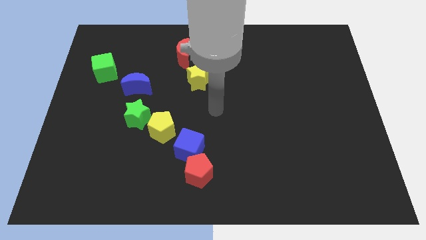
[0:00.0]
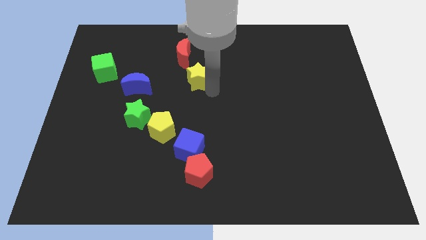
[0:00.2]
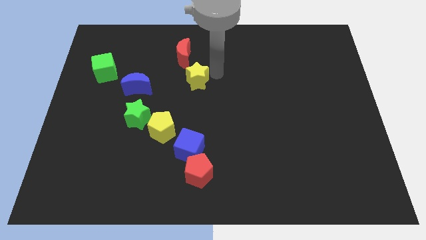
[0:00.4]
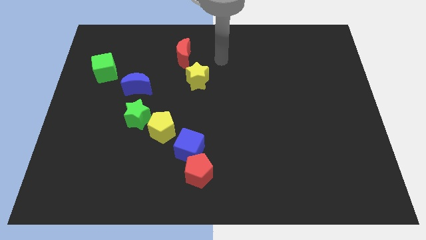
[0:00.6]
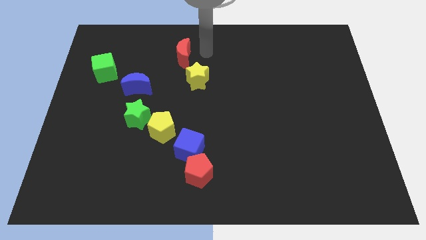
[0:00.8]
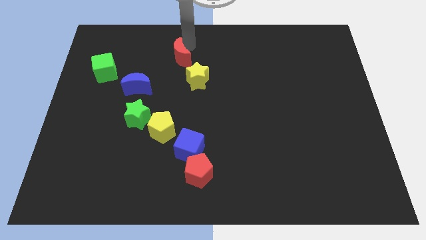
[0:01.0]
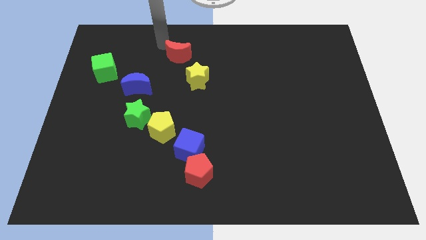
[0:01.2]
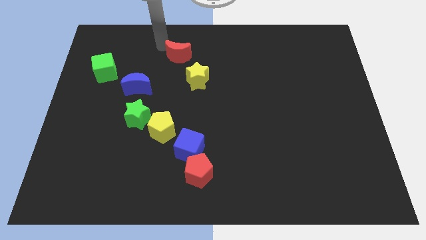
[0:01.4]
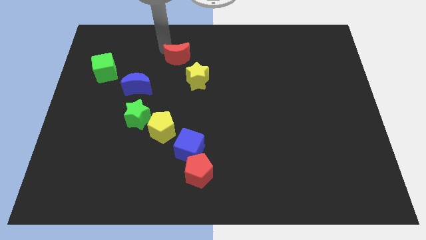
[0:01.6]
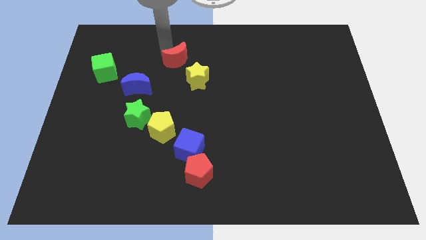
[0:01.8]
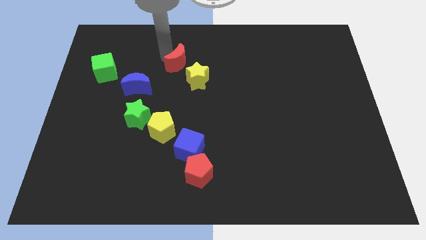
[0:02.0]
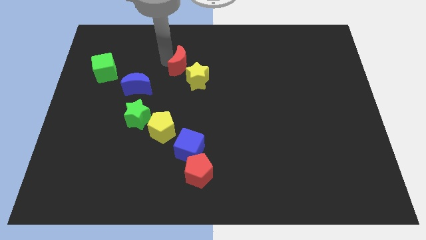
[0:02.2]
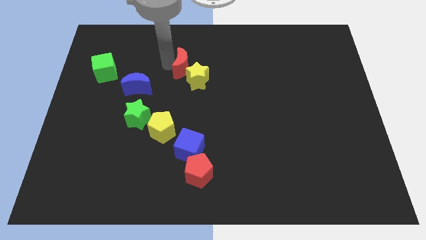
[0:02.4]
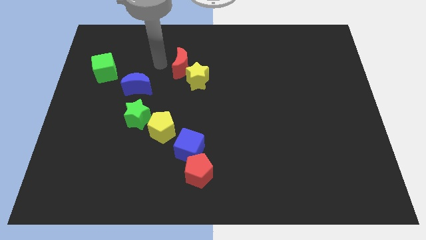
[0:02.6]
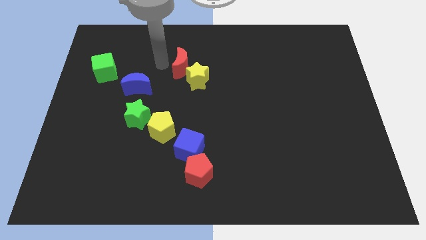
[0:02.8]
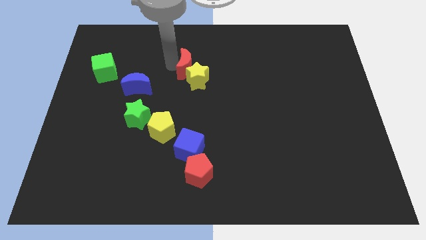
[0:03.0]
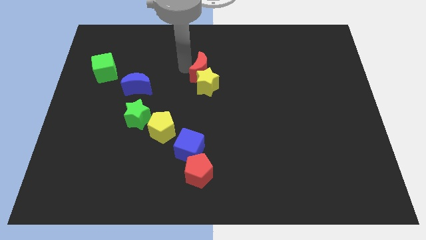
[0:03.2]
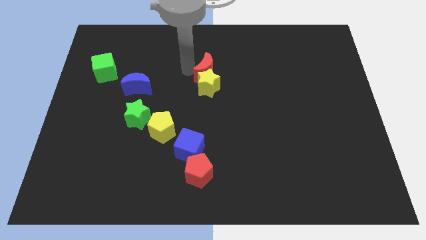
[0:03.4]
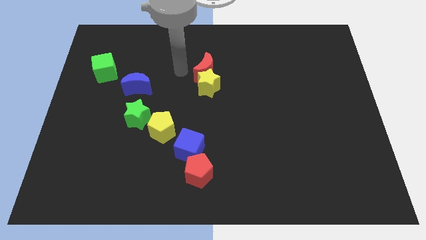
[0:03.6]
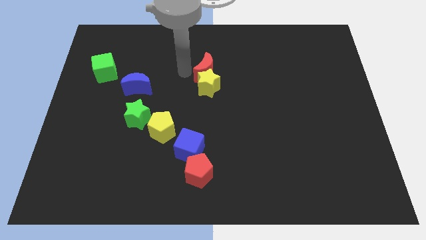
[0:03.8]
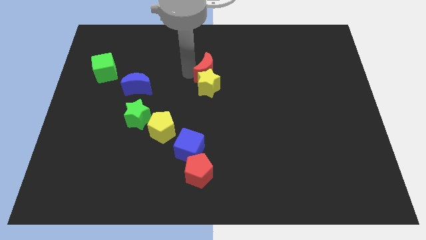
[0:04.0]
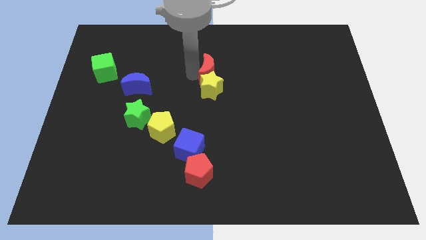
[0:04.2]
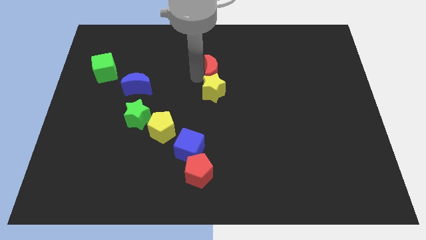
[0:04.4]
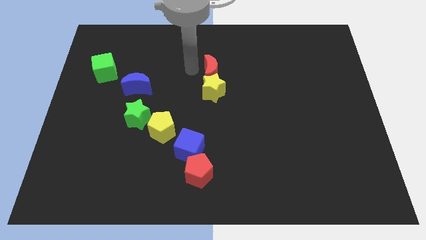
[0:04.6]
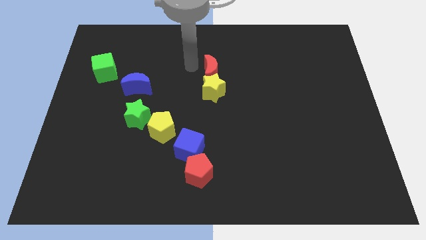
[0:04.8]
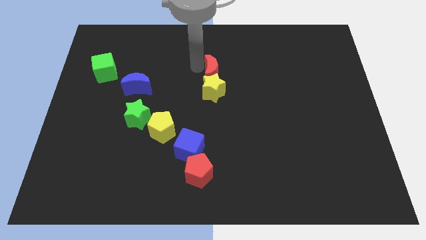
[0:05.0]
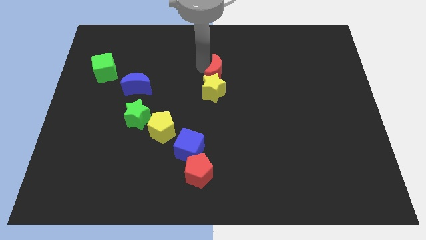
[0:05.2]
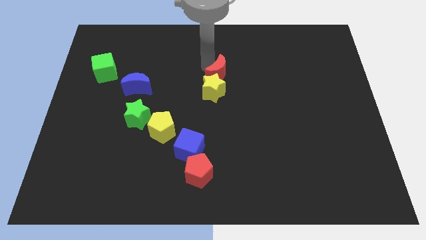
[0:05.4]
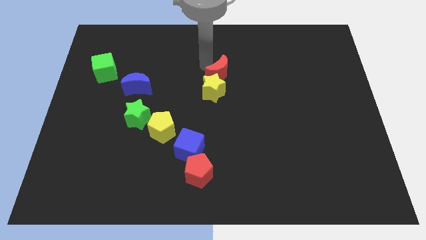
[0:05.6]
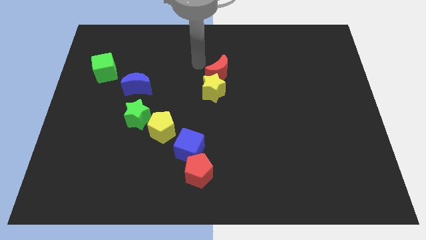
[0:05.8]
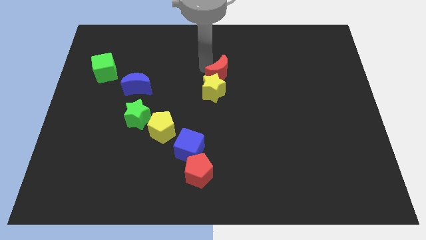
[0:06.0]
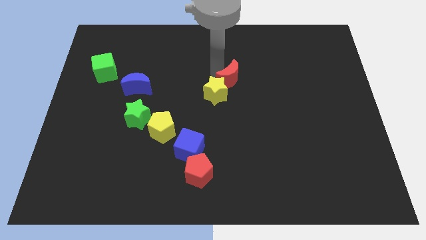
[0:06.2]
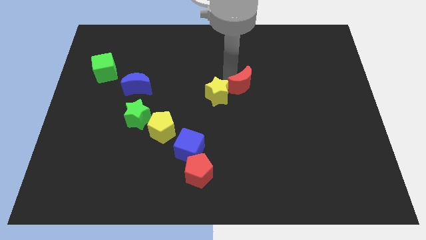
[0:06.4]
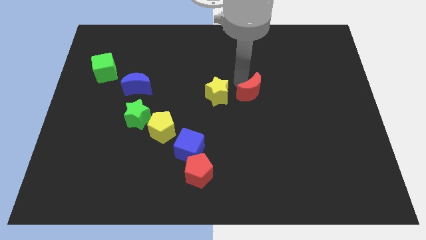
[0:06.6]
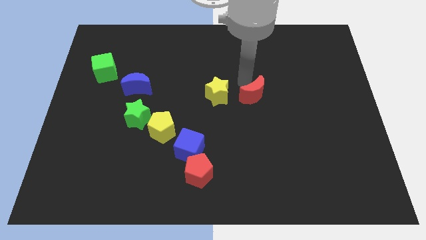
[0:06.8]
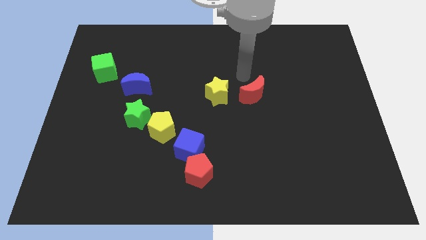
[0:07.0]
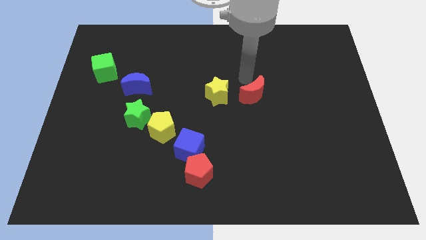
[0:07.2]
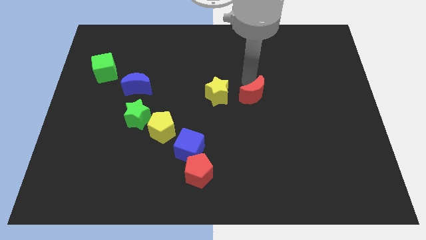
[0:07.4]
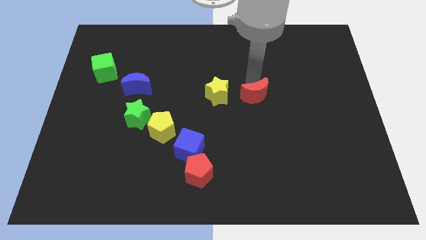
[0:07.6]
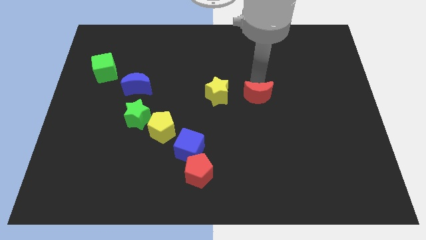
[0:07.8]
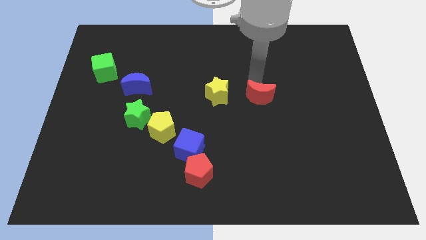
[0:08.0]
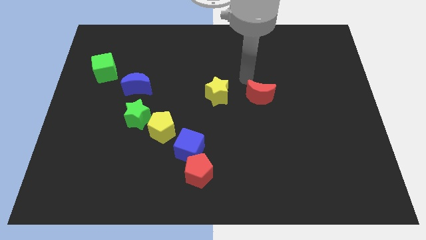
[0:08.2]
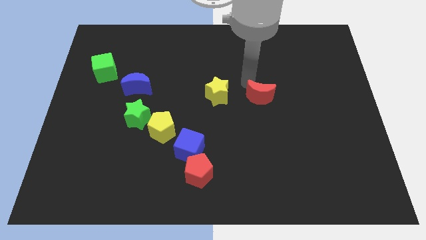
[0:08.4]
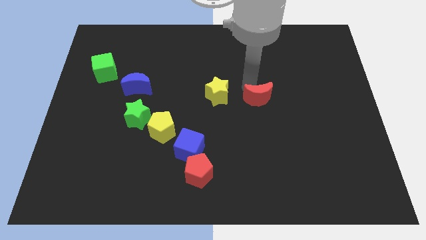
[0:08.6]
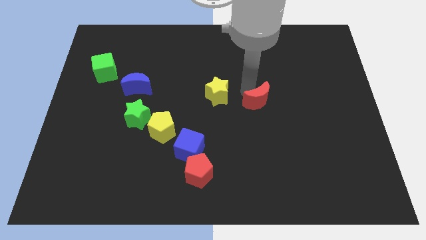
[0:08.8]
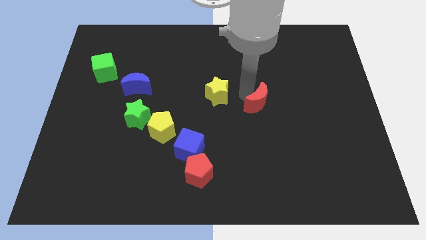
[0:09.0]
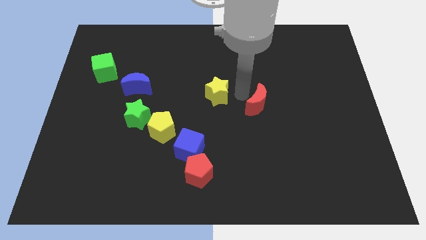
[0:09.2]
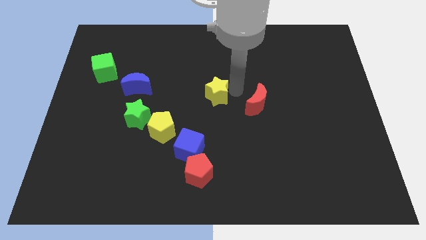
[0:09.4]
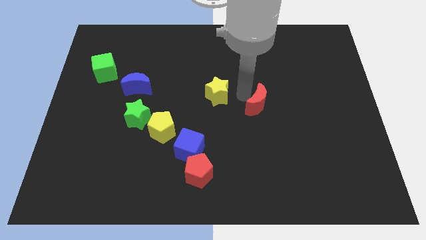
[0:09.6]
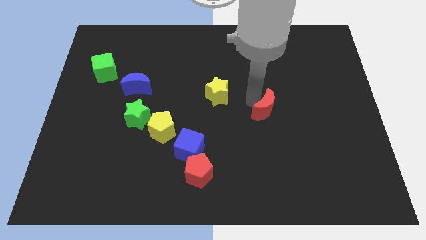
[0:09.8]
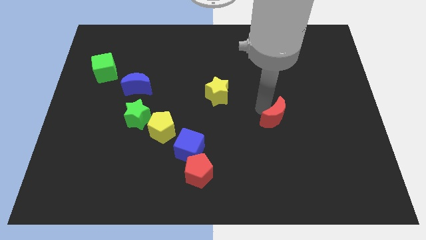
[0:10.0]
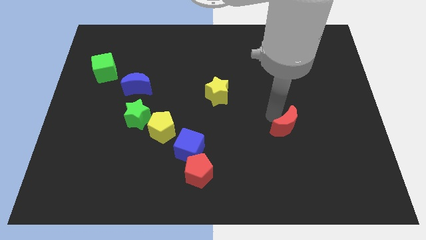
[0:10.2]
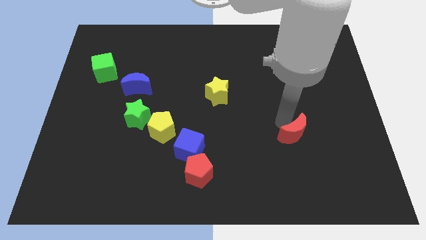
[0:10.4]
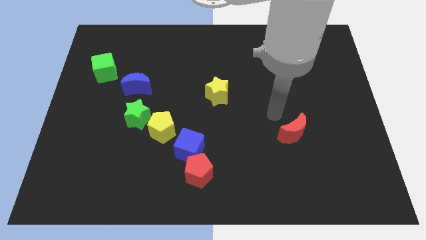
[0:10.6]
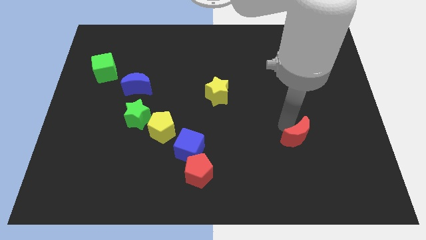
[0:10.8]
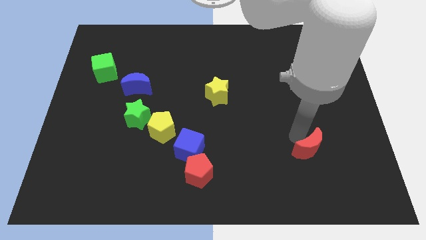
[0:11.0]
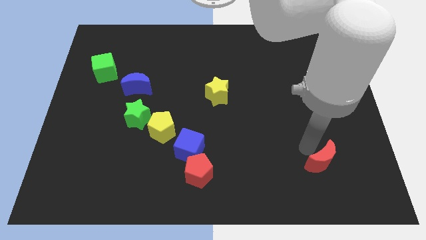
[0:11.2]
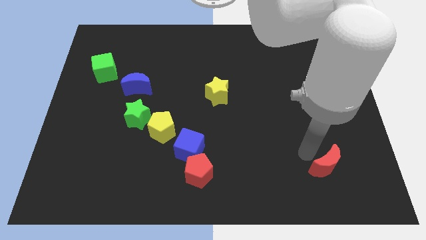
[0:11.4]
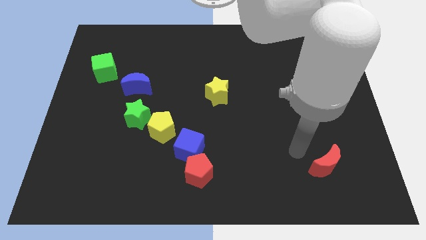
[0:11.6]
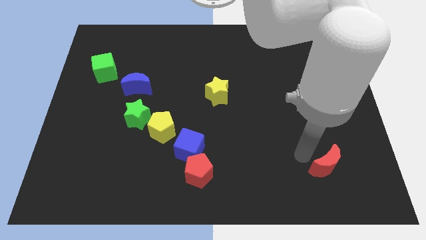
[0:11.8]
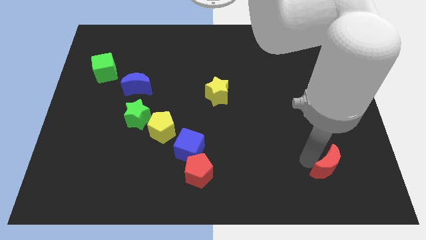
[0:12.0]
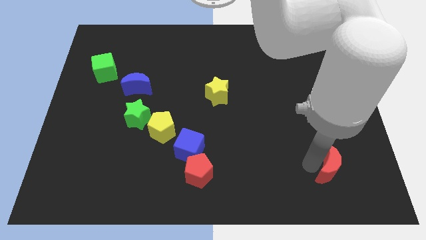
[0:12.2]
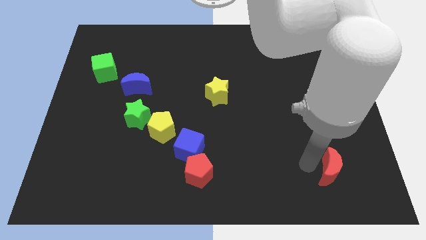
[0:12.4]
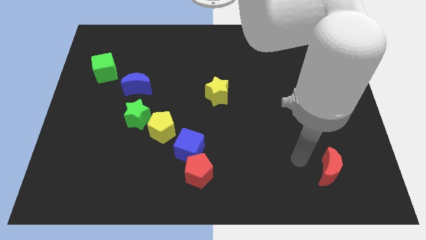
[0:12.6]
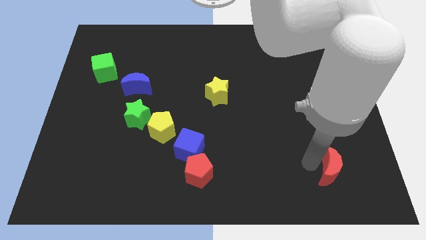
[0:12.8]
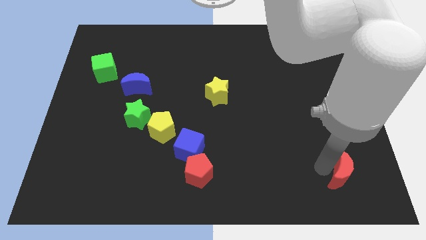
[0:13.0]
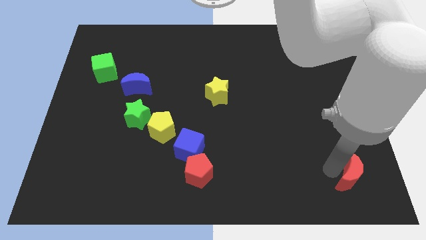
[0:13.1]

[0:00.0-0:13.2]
push the red moon to the bottom right
